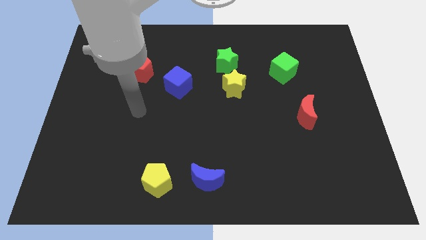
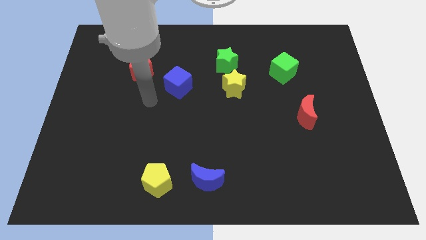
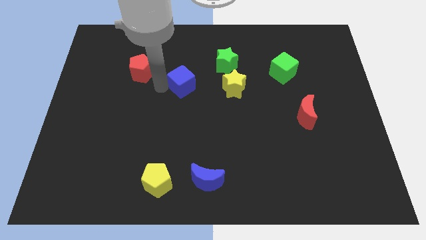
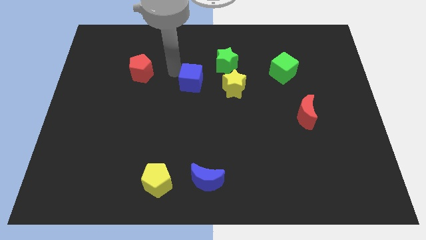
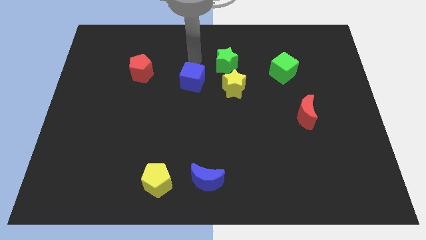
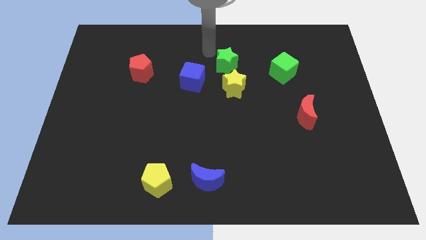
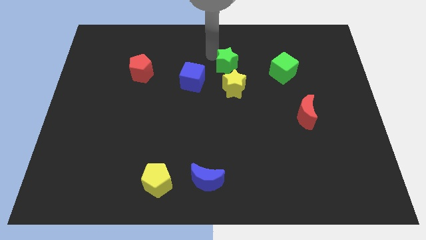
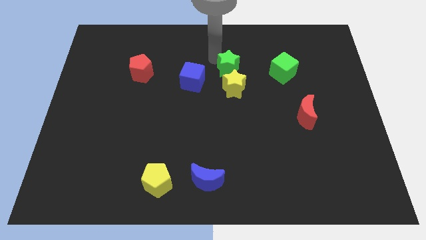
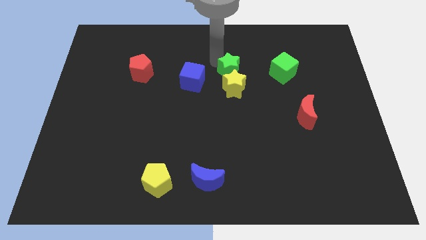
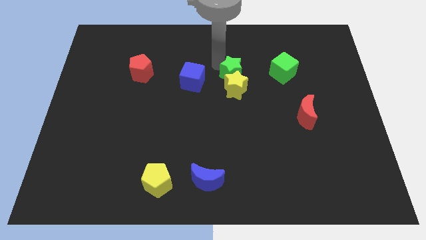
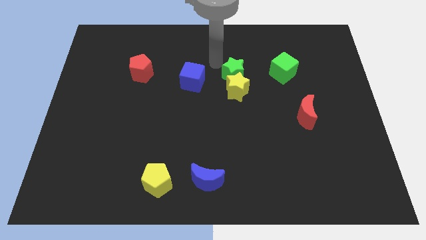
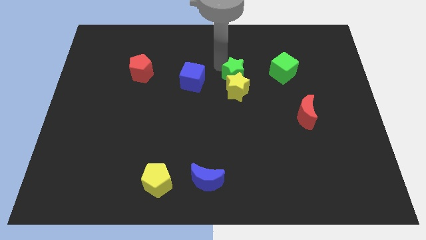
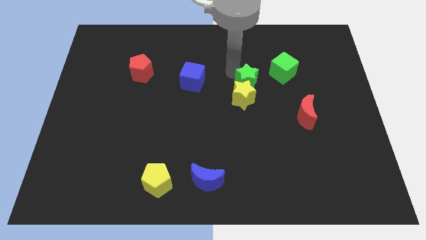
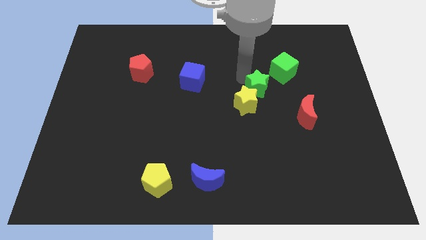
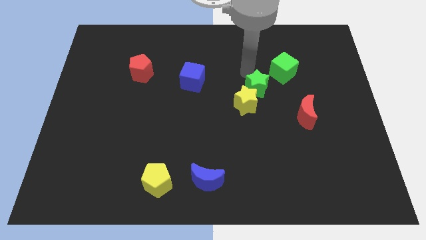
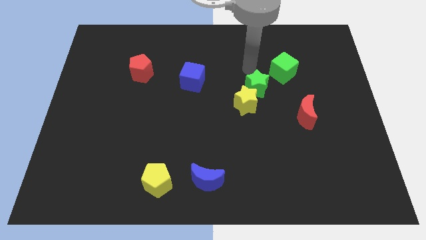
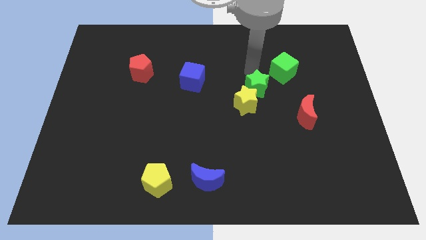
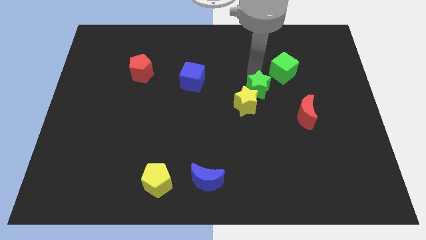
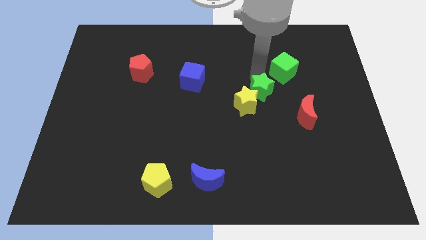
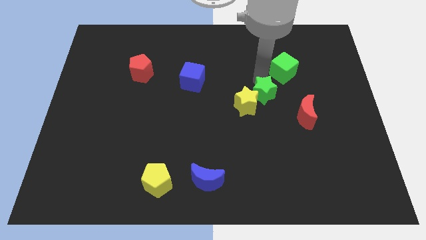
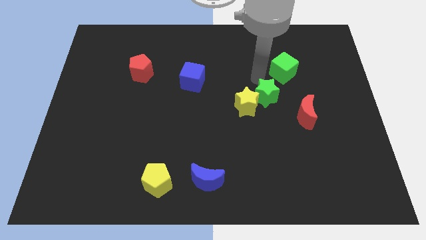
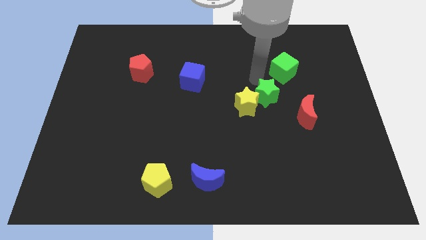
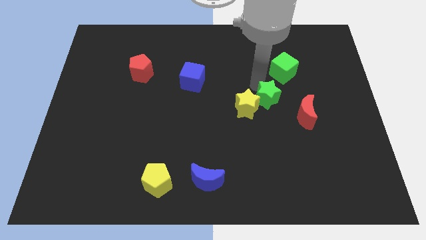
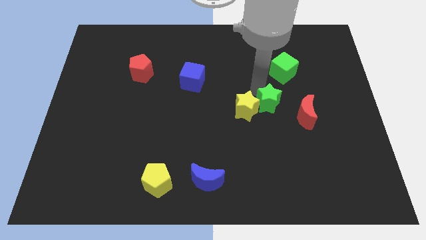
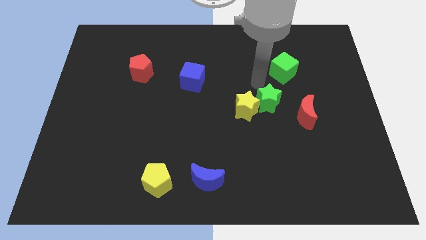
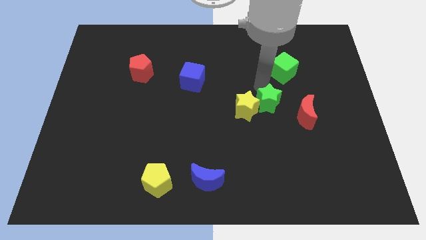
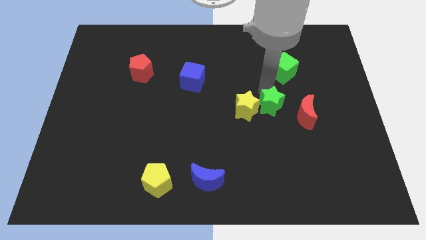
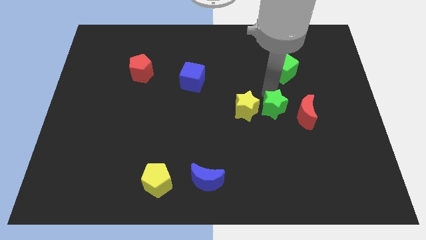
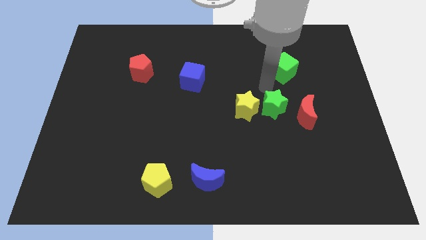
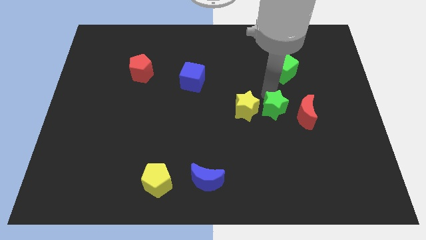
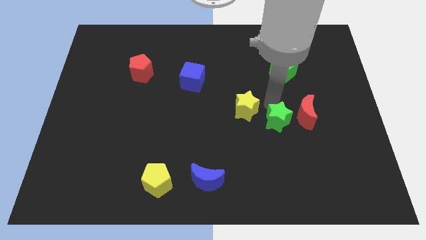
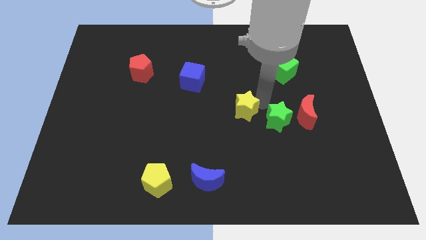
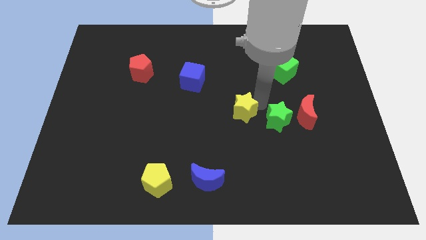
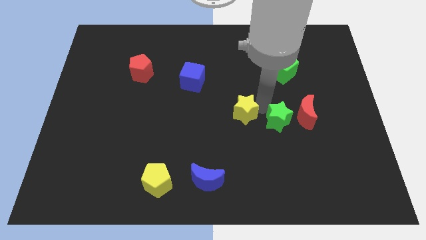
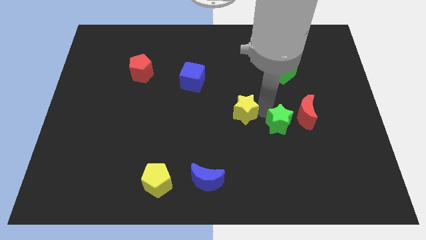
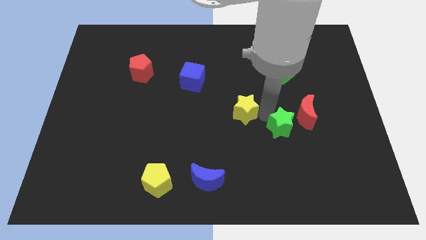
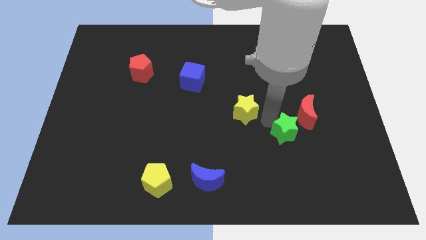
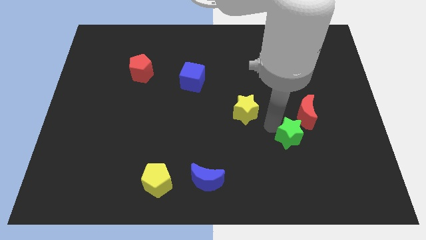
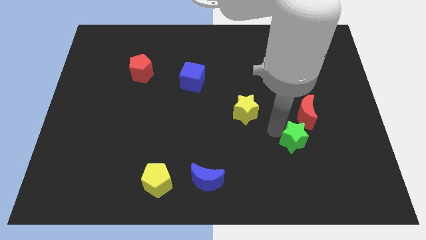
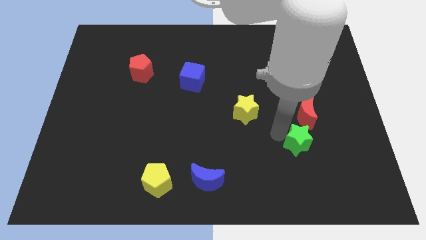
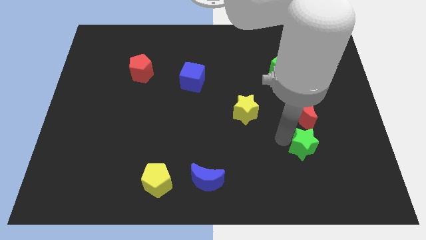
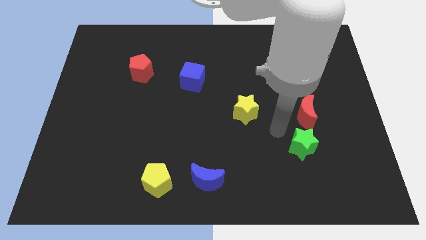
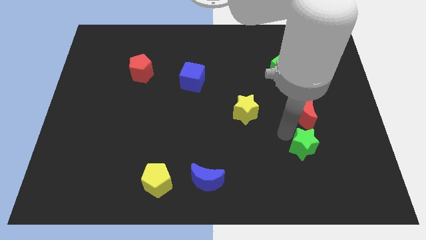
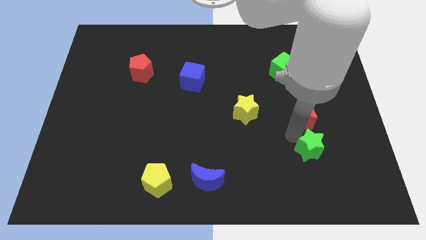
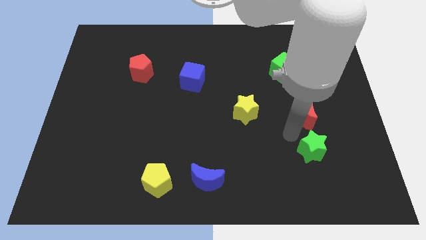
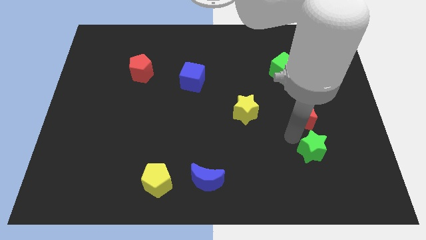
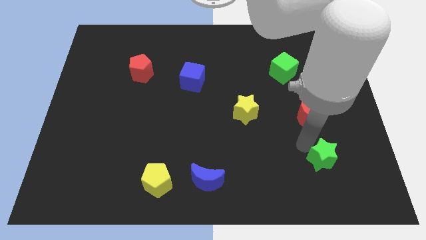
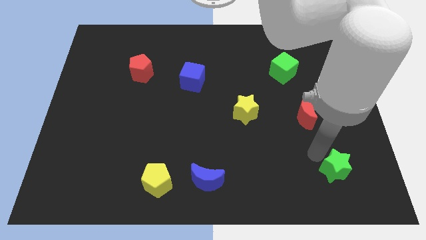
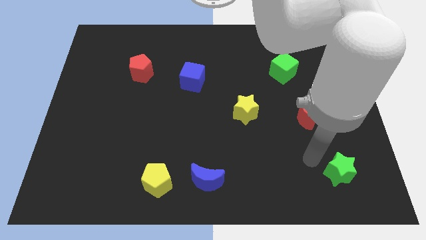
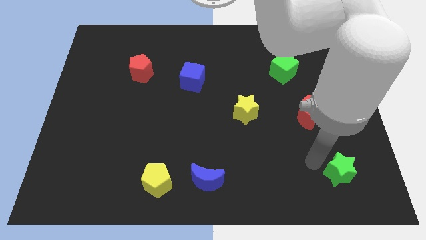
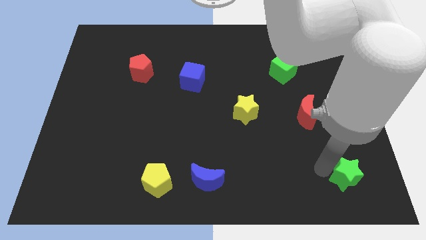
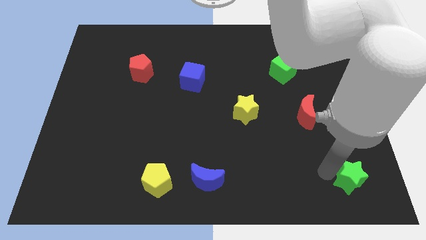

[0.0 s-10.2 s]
push the green star to the bottom right corner
